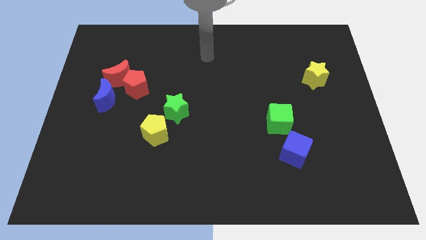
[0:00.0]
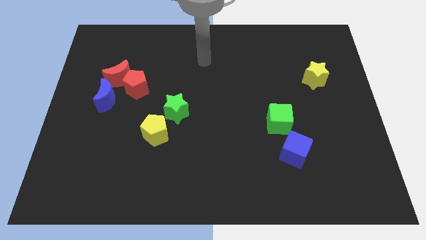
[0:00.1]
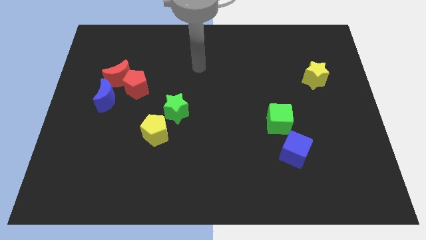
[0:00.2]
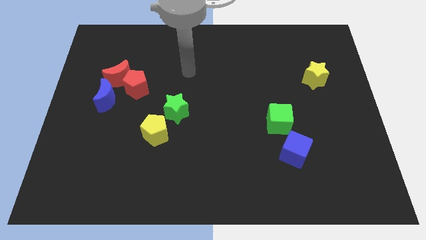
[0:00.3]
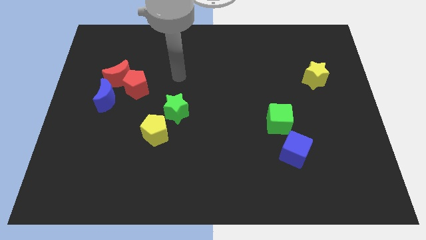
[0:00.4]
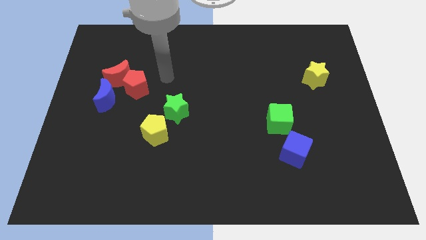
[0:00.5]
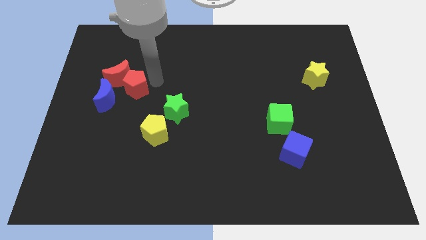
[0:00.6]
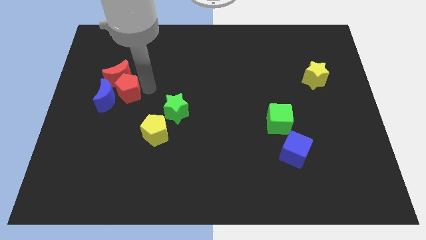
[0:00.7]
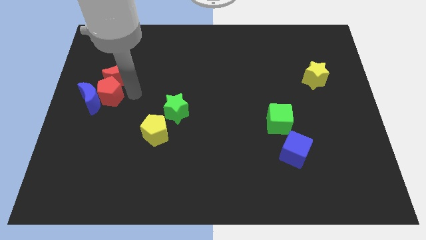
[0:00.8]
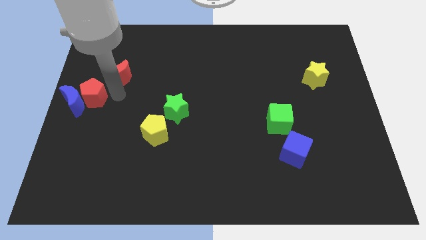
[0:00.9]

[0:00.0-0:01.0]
move the red moon away from the red pentagon and blue moon

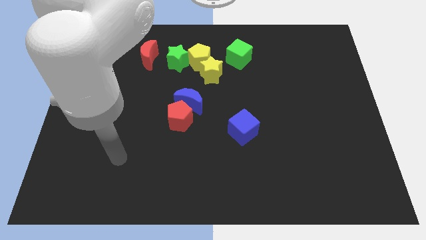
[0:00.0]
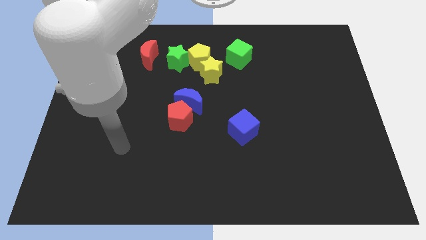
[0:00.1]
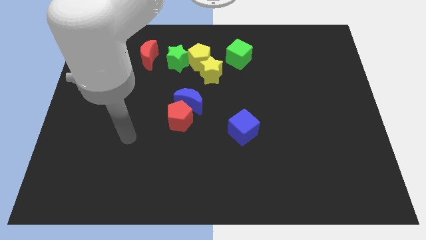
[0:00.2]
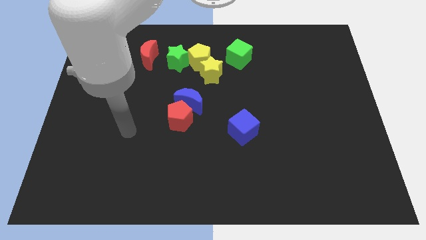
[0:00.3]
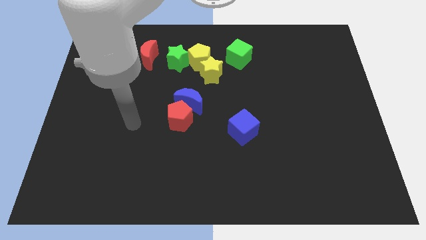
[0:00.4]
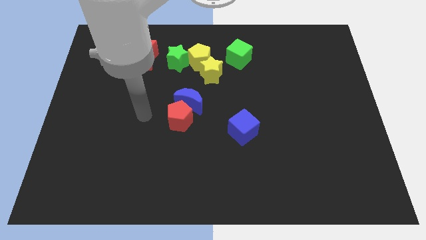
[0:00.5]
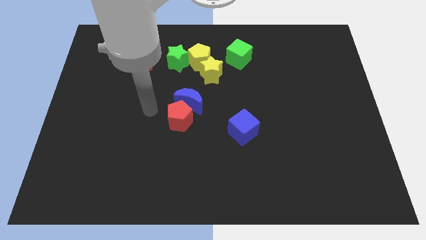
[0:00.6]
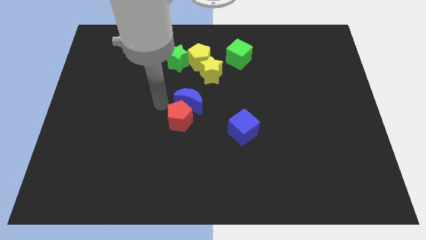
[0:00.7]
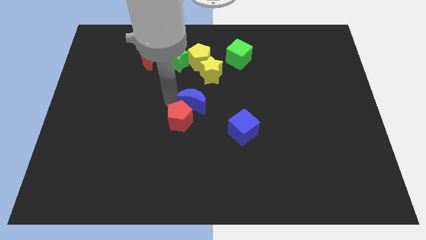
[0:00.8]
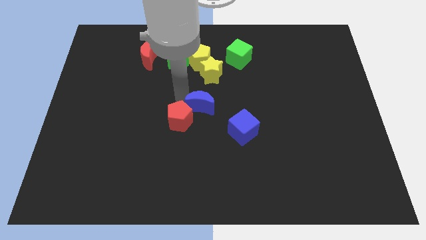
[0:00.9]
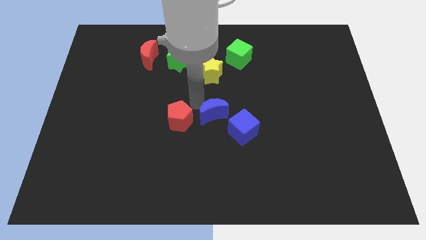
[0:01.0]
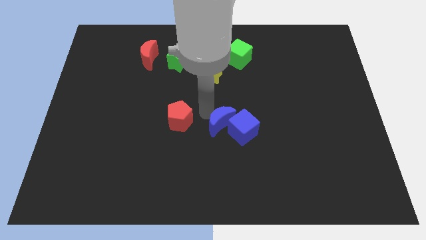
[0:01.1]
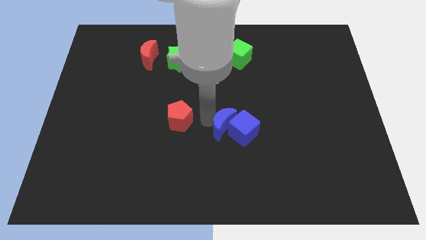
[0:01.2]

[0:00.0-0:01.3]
move the red pentagon away from the blue moon

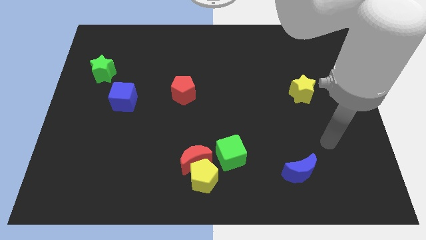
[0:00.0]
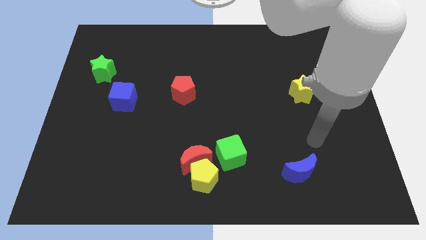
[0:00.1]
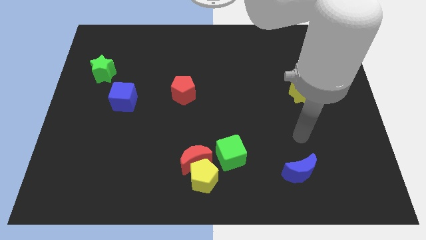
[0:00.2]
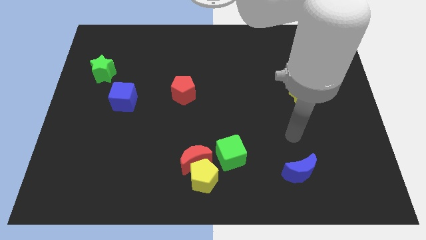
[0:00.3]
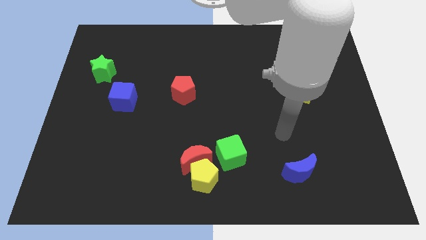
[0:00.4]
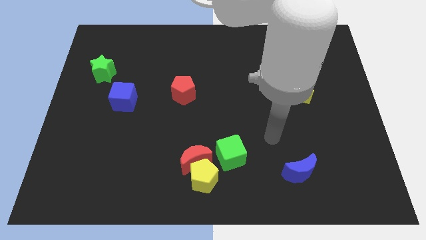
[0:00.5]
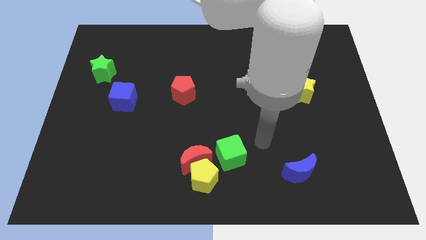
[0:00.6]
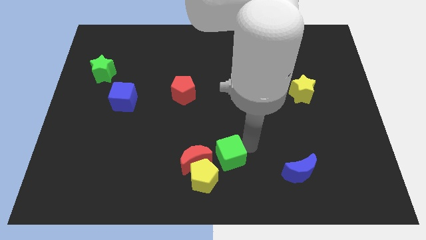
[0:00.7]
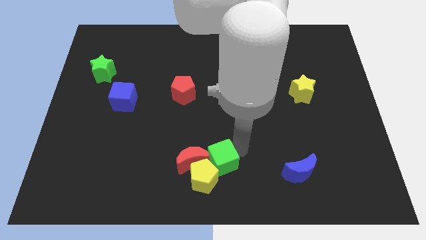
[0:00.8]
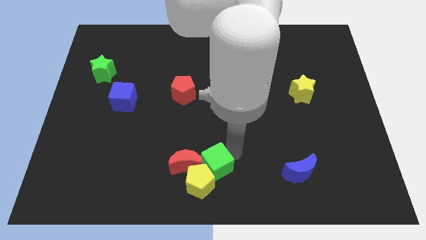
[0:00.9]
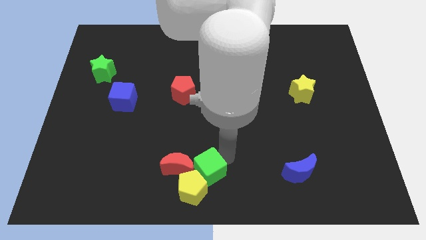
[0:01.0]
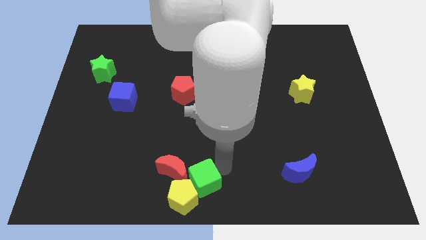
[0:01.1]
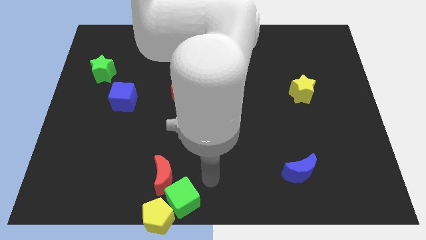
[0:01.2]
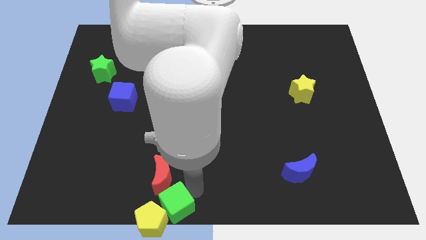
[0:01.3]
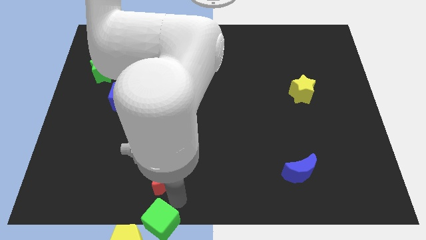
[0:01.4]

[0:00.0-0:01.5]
pull the red moon apart from the yellow pentagon and green cube

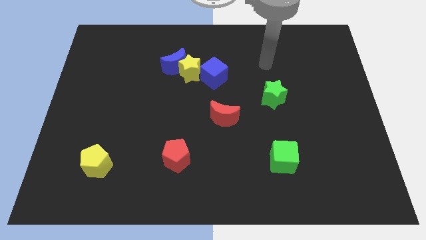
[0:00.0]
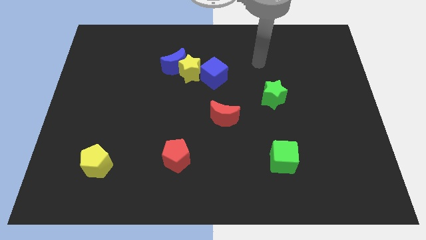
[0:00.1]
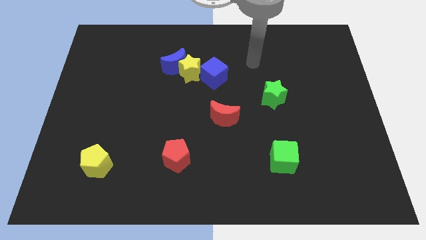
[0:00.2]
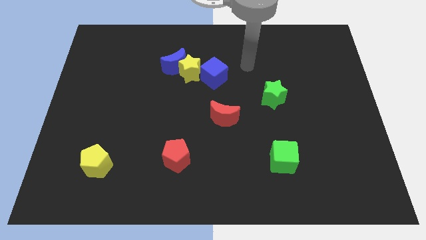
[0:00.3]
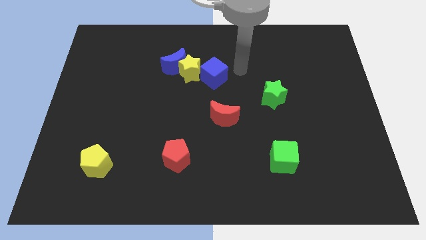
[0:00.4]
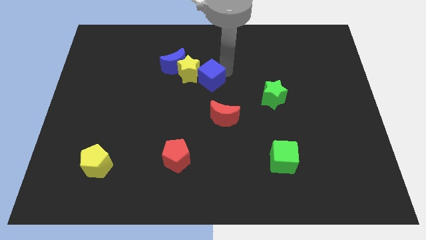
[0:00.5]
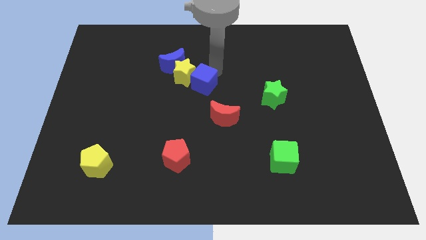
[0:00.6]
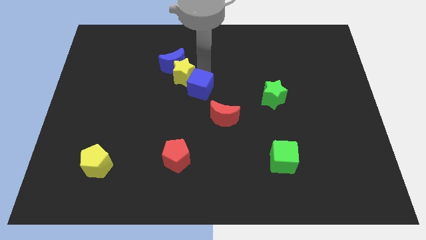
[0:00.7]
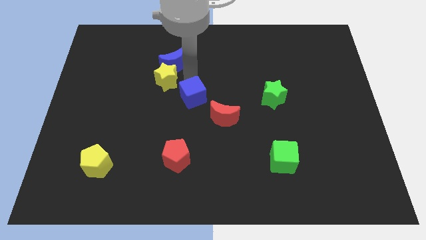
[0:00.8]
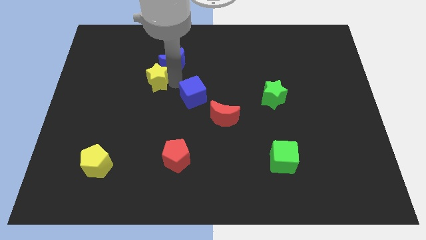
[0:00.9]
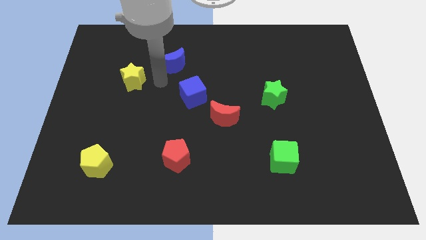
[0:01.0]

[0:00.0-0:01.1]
move the blue moon away from the yellow star

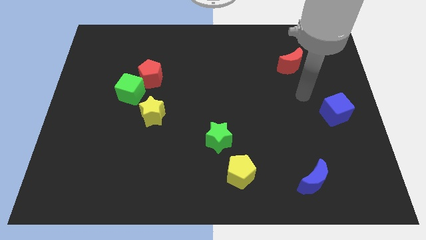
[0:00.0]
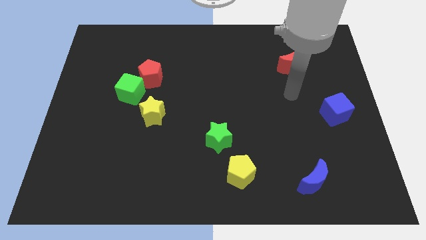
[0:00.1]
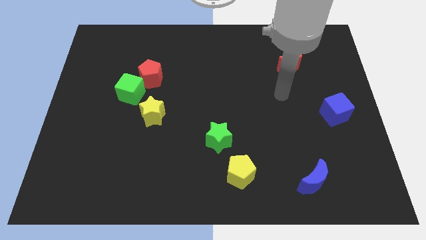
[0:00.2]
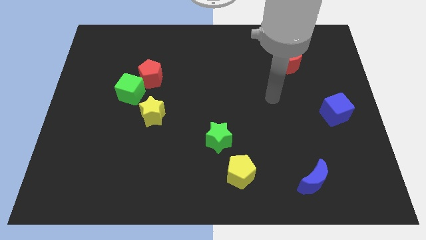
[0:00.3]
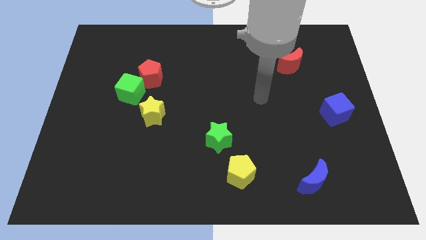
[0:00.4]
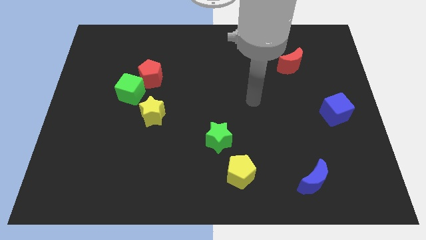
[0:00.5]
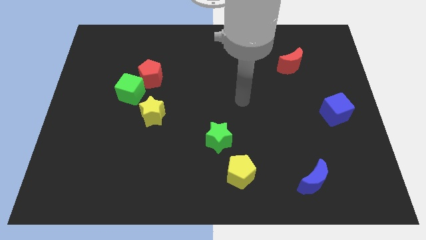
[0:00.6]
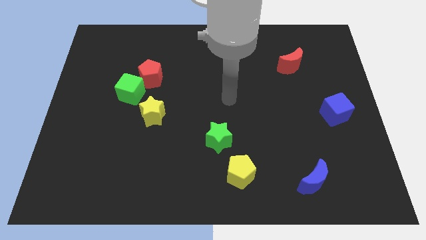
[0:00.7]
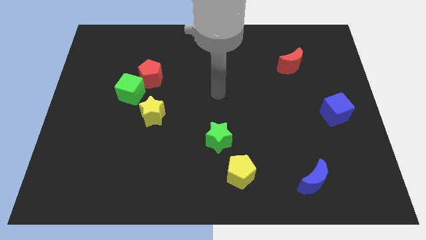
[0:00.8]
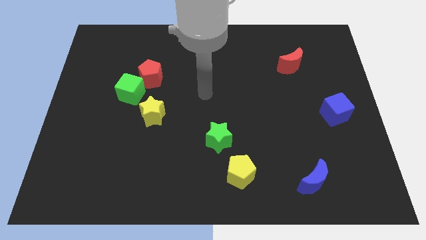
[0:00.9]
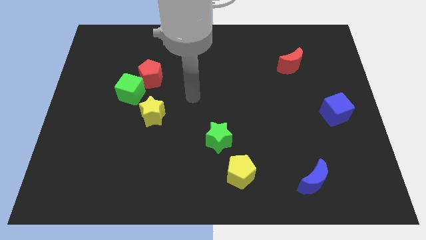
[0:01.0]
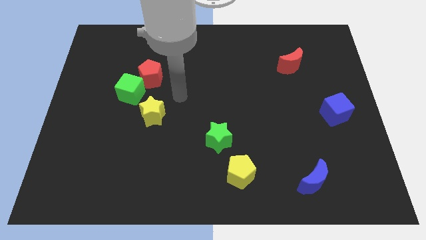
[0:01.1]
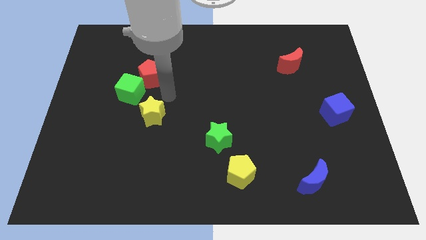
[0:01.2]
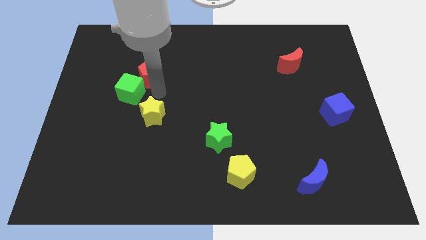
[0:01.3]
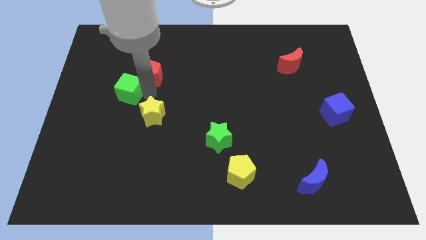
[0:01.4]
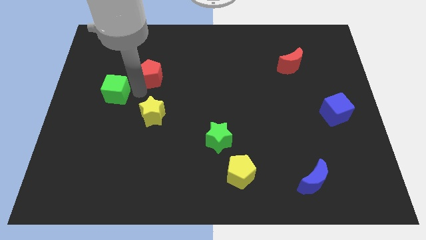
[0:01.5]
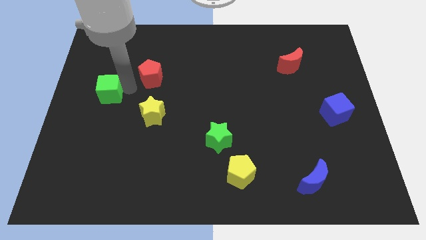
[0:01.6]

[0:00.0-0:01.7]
pull the red pentagon apart from the green cube

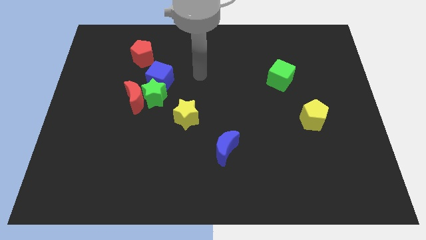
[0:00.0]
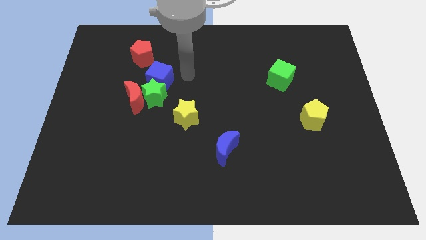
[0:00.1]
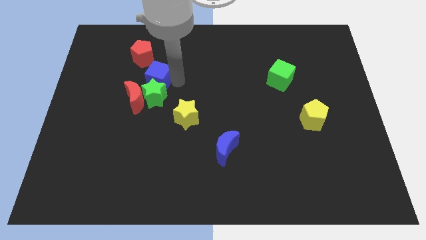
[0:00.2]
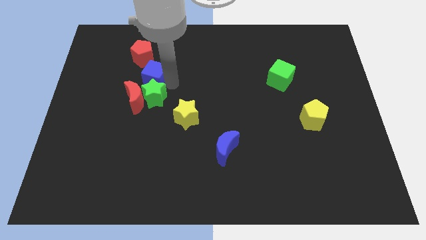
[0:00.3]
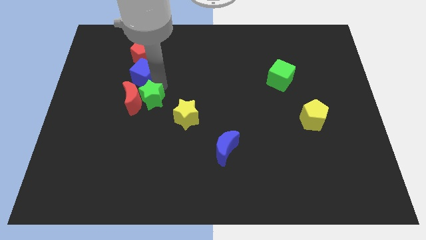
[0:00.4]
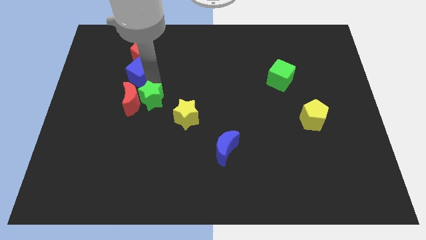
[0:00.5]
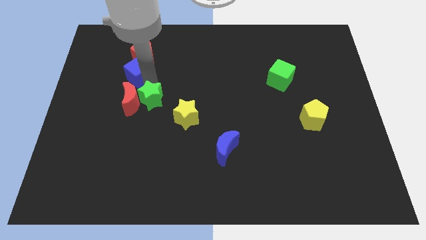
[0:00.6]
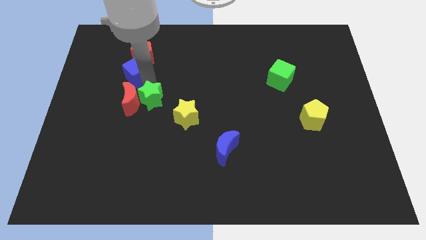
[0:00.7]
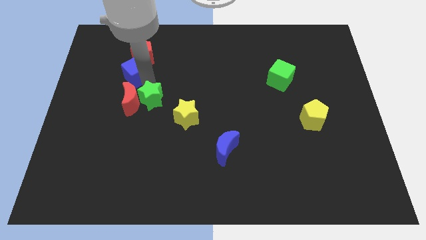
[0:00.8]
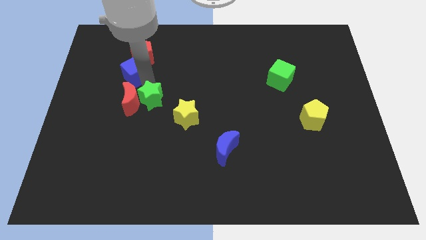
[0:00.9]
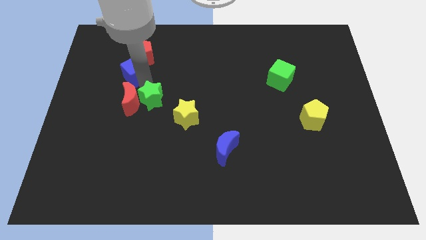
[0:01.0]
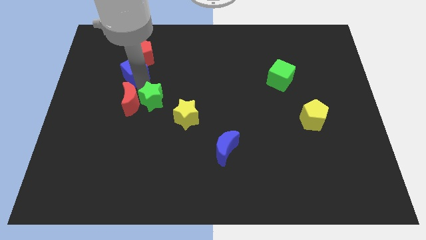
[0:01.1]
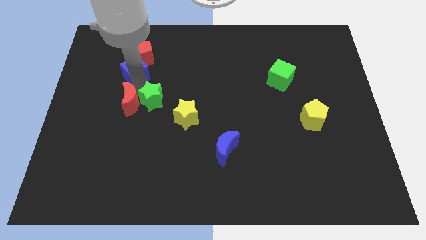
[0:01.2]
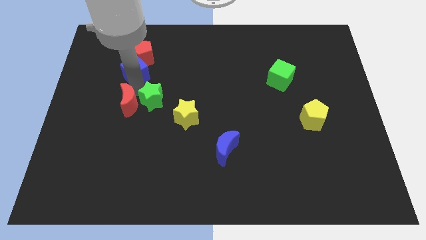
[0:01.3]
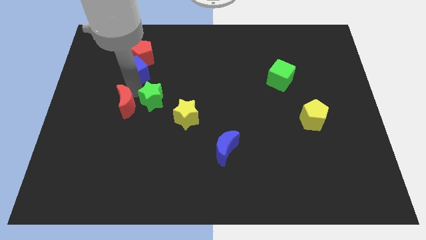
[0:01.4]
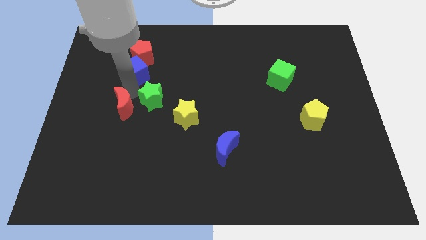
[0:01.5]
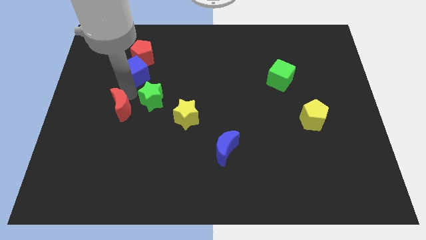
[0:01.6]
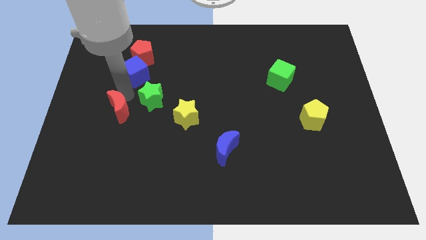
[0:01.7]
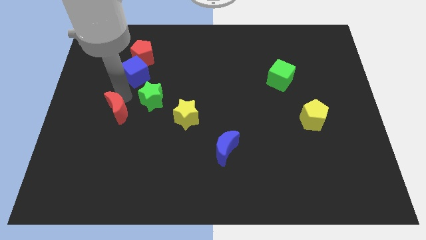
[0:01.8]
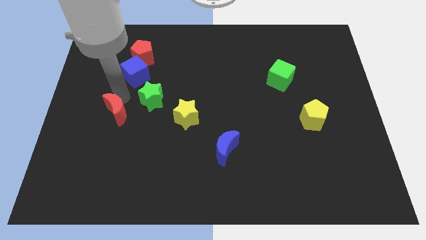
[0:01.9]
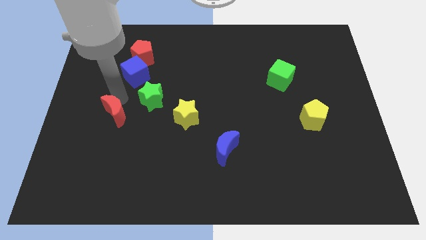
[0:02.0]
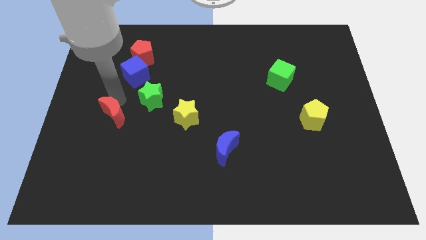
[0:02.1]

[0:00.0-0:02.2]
pull the red moon apart from the green star and blue cube

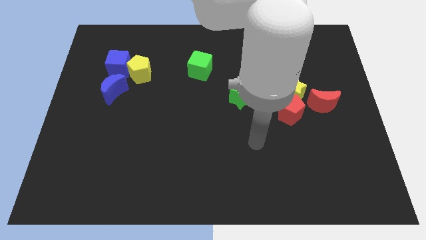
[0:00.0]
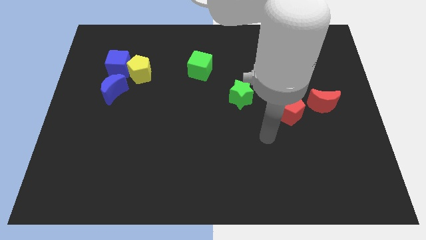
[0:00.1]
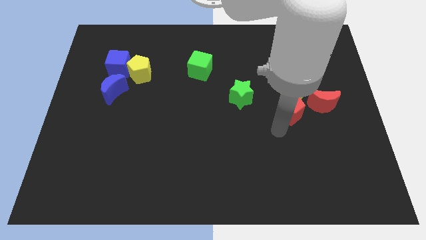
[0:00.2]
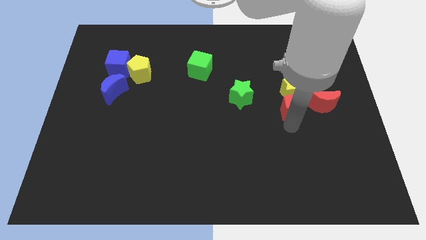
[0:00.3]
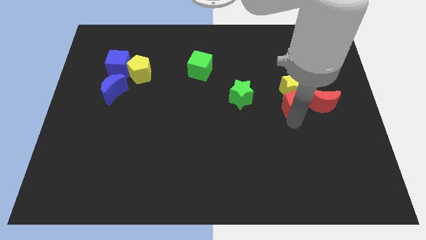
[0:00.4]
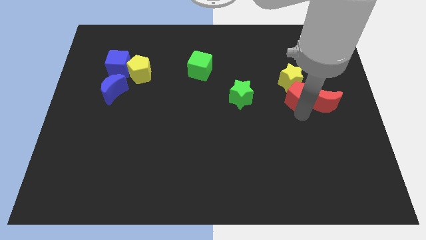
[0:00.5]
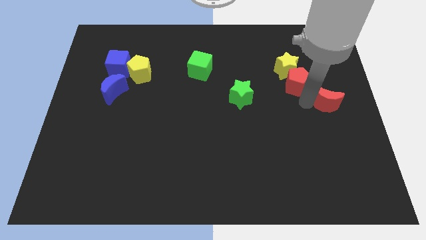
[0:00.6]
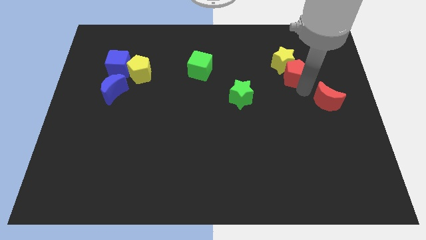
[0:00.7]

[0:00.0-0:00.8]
move the yellow star away from the red pentagon and red moon
